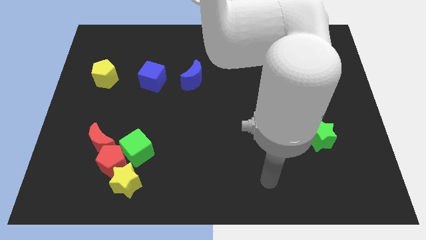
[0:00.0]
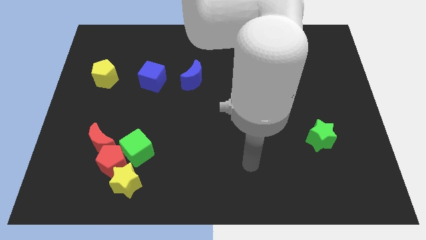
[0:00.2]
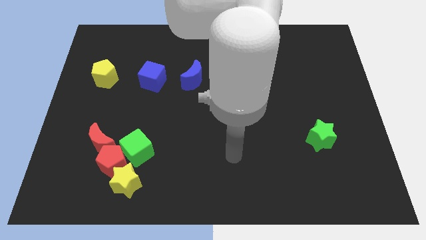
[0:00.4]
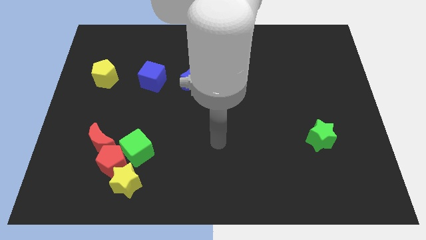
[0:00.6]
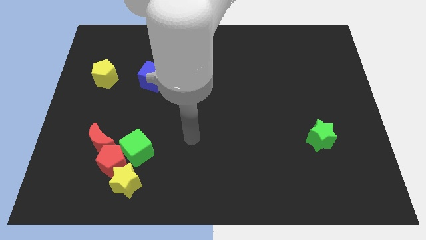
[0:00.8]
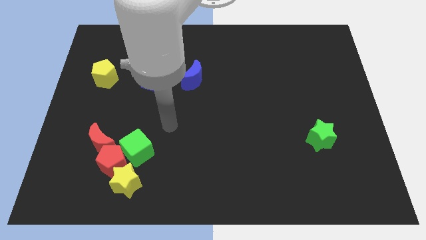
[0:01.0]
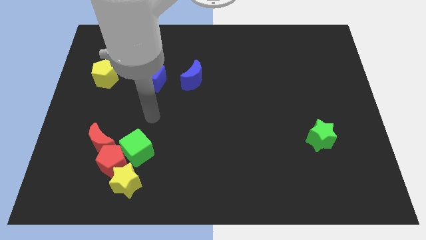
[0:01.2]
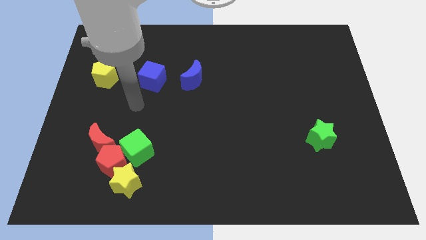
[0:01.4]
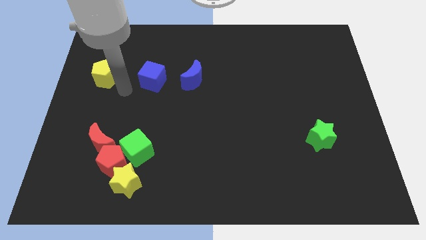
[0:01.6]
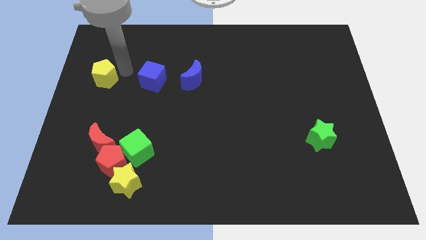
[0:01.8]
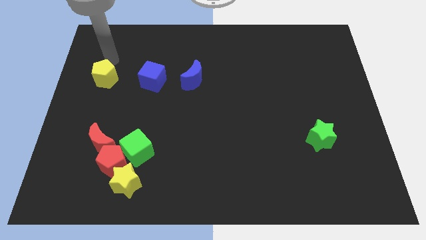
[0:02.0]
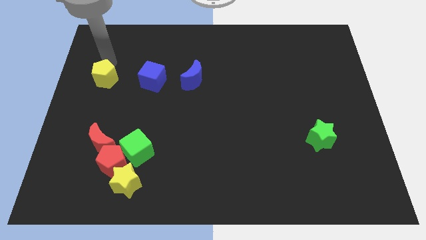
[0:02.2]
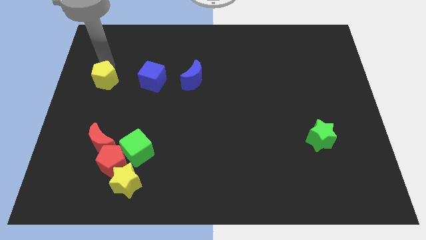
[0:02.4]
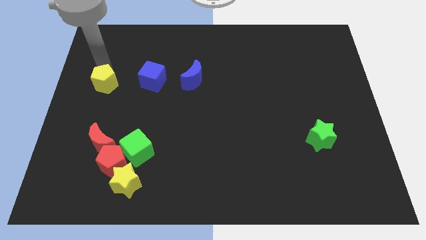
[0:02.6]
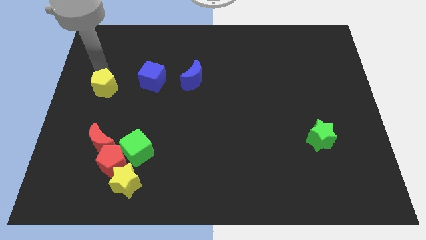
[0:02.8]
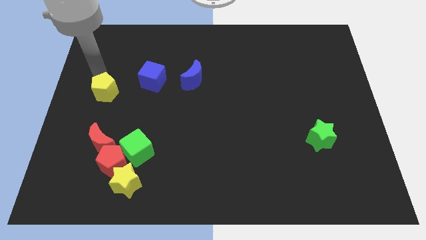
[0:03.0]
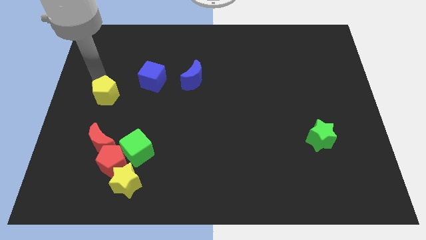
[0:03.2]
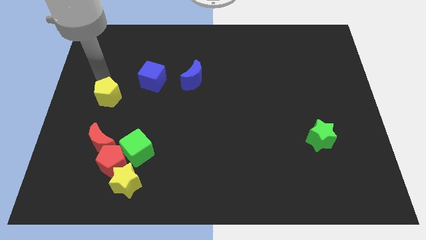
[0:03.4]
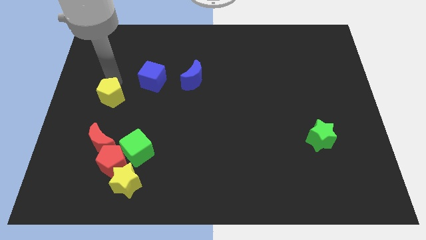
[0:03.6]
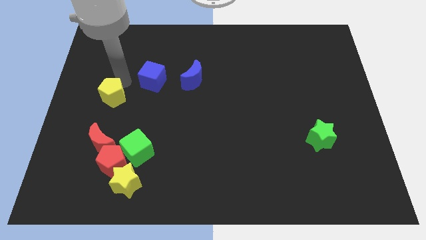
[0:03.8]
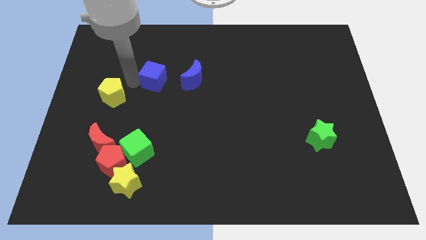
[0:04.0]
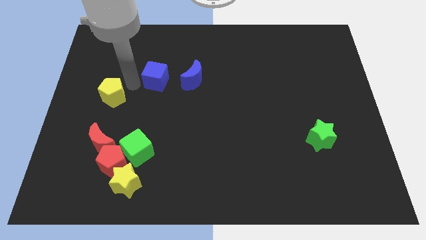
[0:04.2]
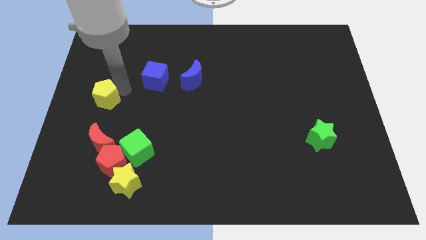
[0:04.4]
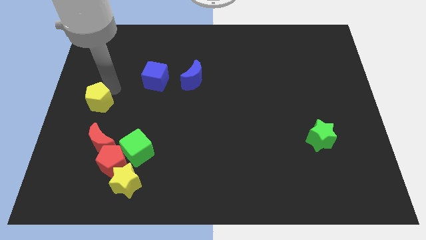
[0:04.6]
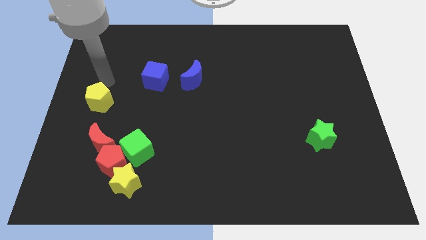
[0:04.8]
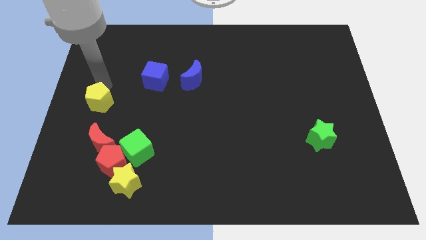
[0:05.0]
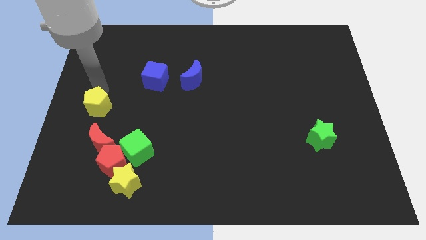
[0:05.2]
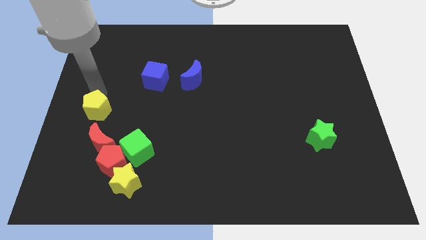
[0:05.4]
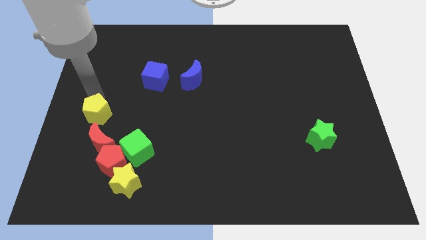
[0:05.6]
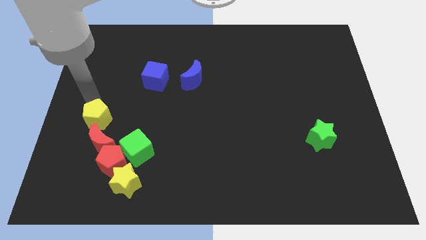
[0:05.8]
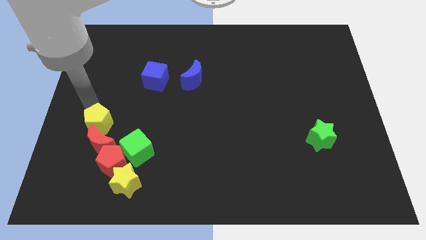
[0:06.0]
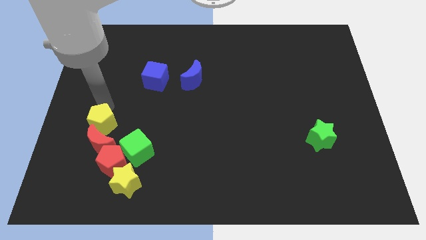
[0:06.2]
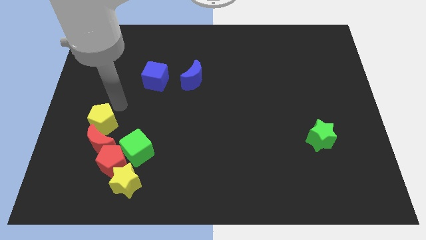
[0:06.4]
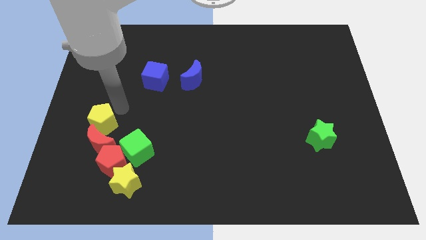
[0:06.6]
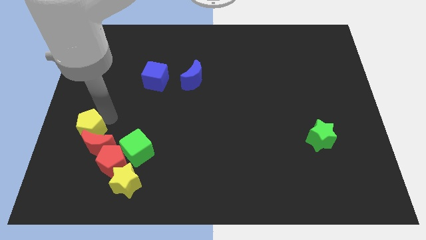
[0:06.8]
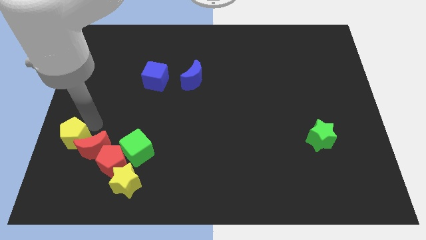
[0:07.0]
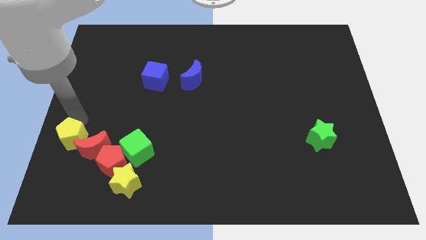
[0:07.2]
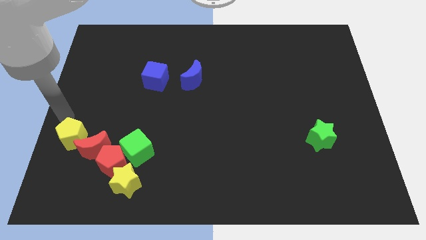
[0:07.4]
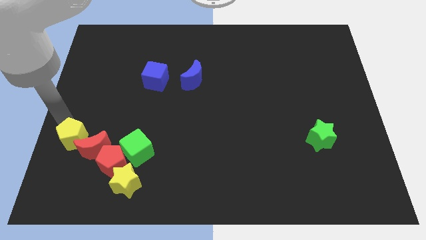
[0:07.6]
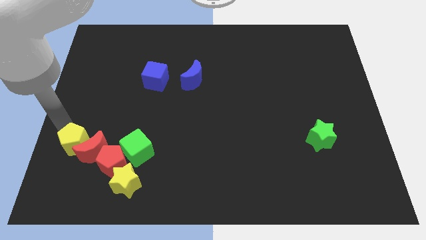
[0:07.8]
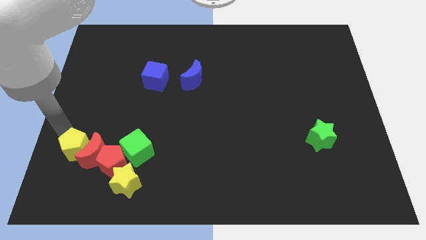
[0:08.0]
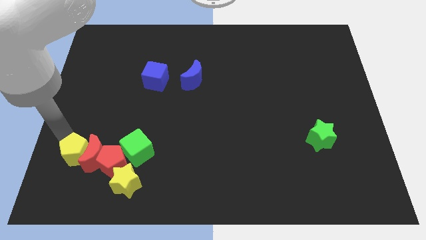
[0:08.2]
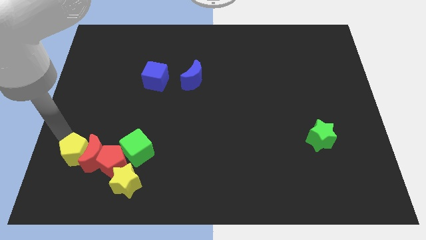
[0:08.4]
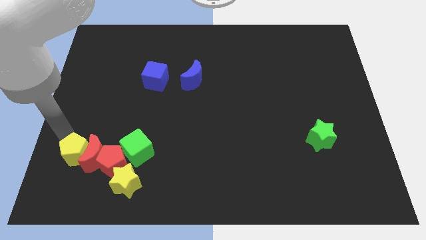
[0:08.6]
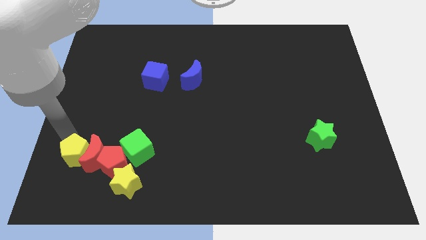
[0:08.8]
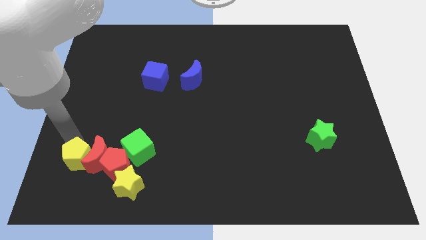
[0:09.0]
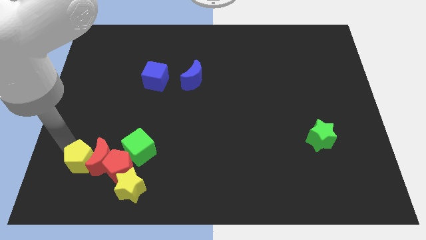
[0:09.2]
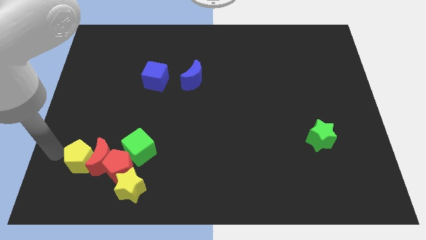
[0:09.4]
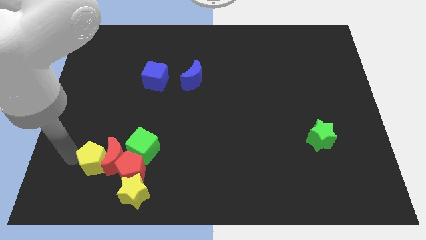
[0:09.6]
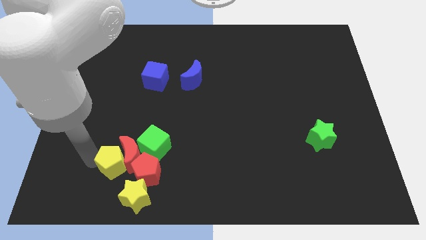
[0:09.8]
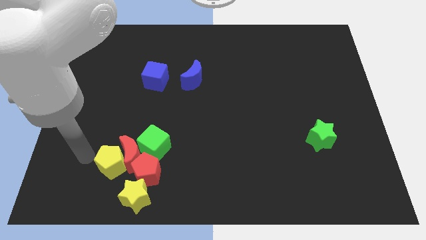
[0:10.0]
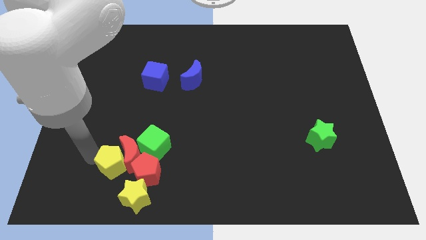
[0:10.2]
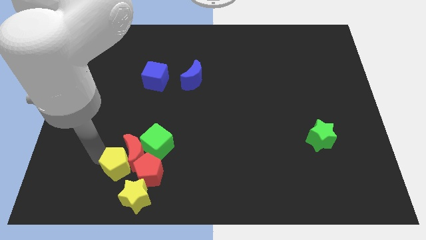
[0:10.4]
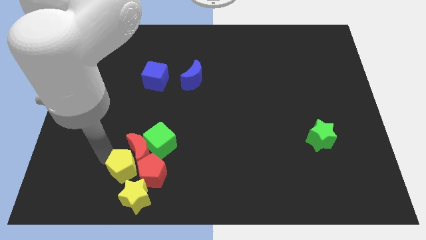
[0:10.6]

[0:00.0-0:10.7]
put the yellow pentagon close to the red pentagon

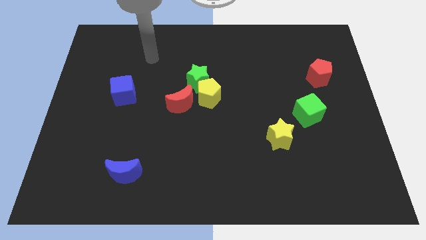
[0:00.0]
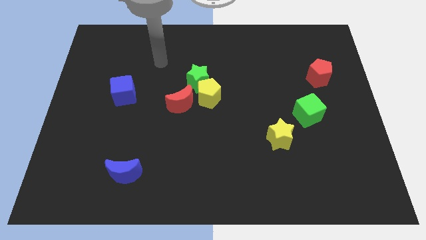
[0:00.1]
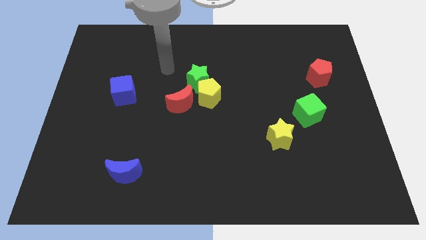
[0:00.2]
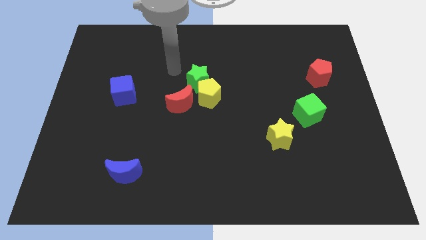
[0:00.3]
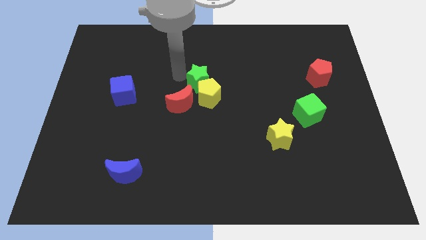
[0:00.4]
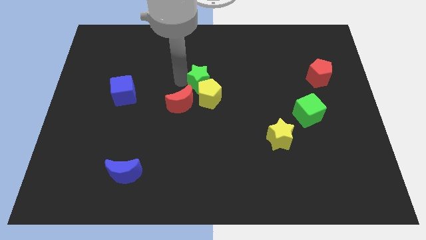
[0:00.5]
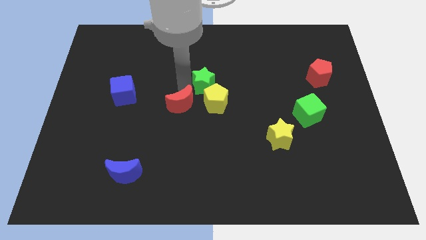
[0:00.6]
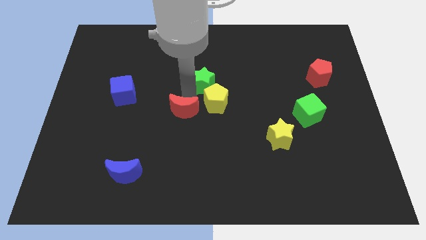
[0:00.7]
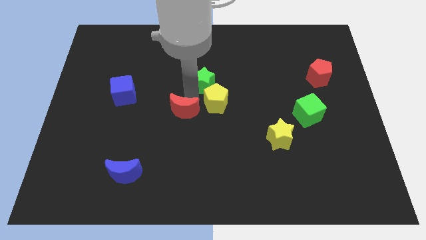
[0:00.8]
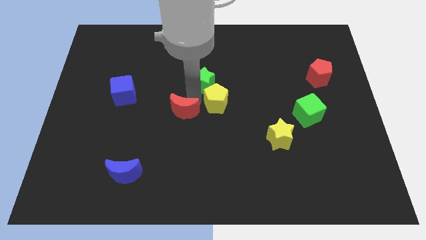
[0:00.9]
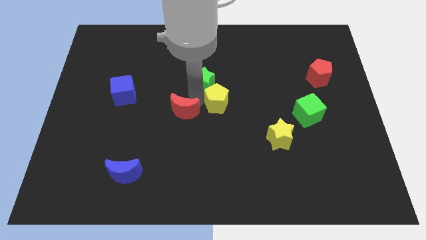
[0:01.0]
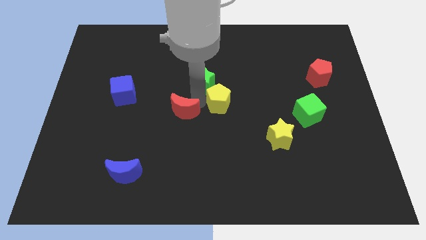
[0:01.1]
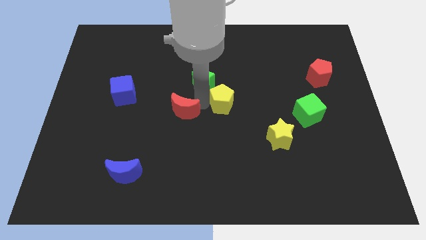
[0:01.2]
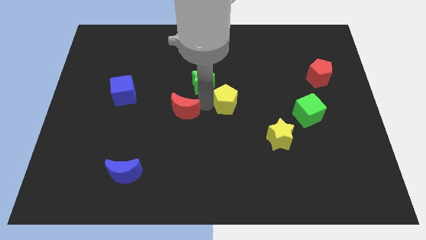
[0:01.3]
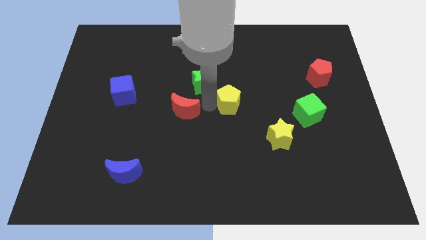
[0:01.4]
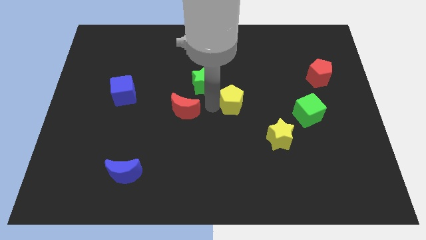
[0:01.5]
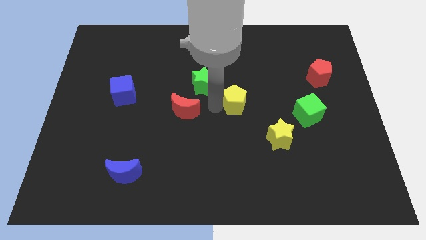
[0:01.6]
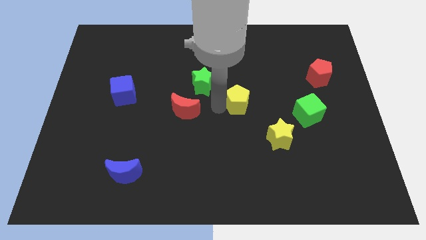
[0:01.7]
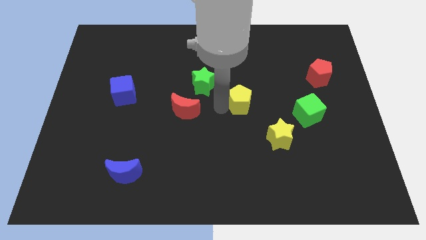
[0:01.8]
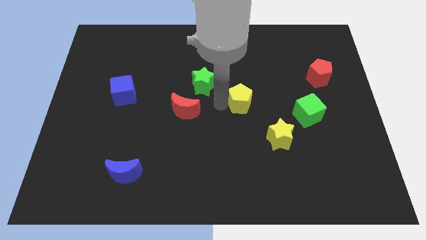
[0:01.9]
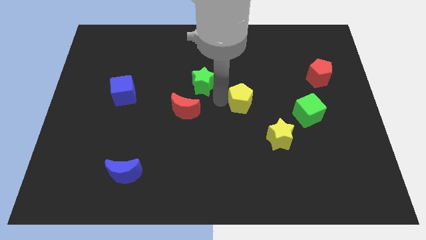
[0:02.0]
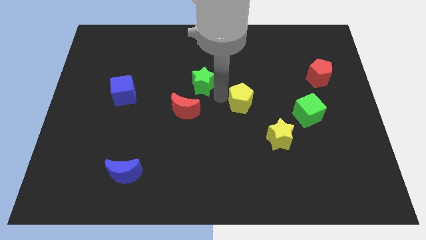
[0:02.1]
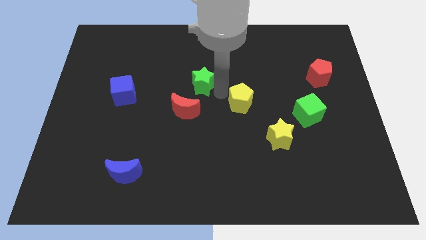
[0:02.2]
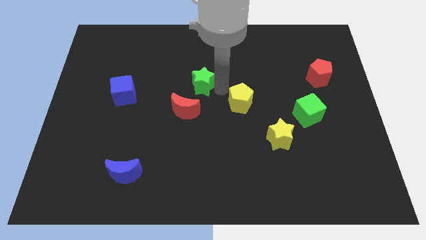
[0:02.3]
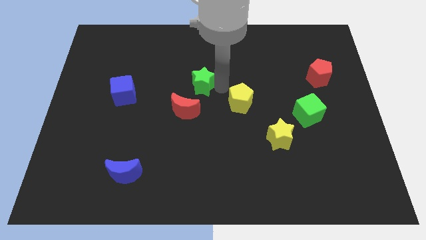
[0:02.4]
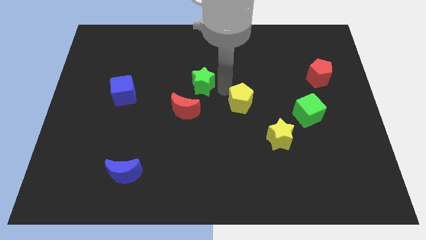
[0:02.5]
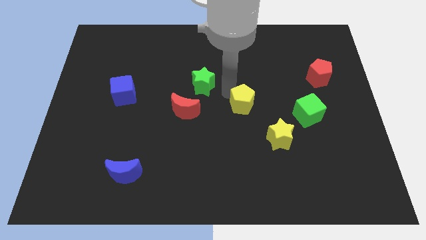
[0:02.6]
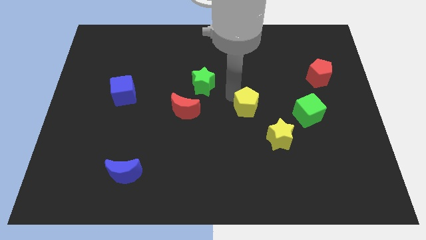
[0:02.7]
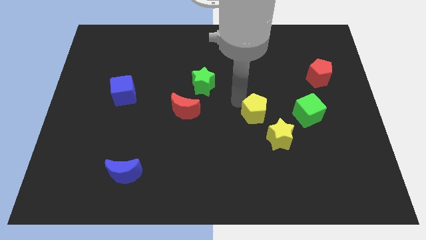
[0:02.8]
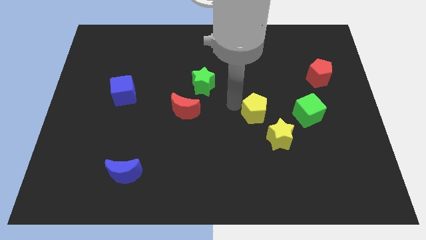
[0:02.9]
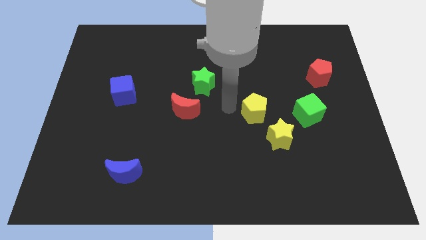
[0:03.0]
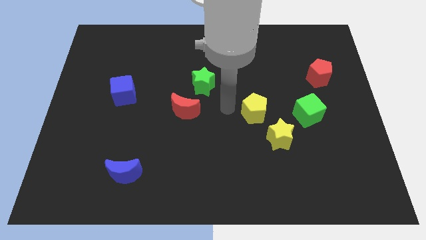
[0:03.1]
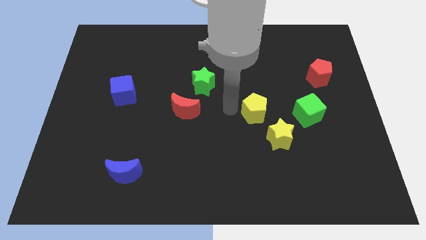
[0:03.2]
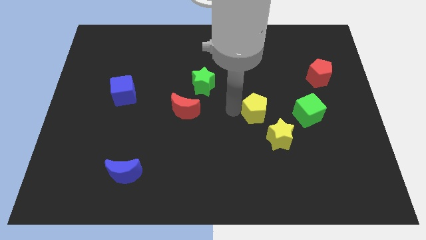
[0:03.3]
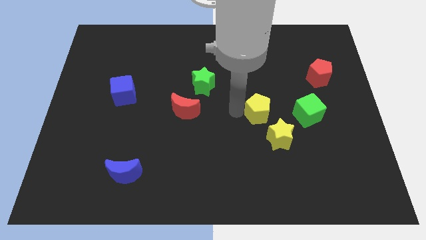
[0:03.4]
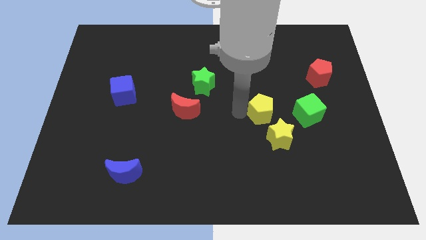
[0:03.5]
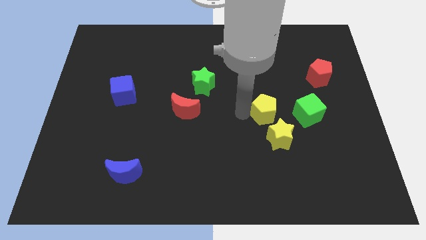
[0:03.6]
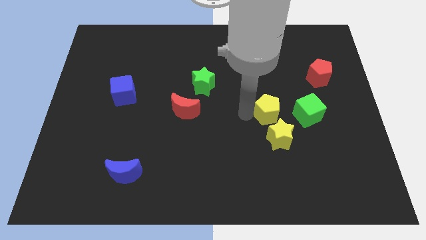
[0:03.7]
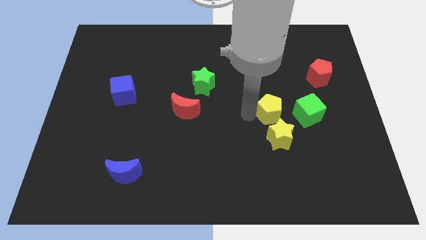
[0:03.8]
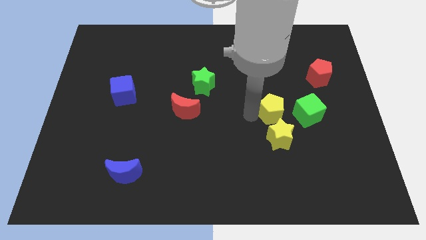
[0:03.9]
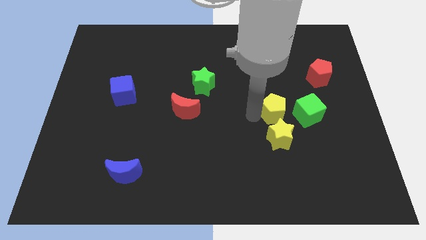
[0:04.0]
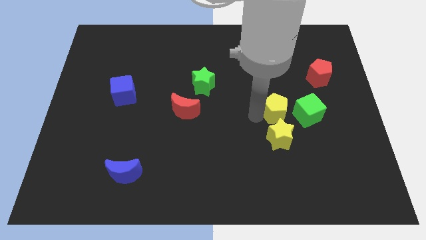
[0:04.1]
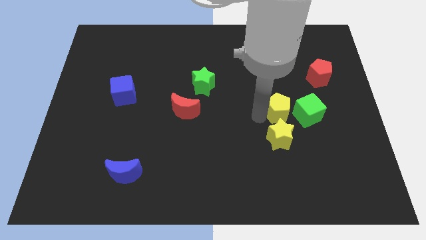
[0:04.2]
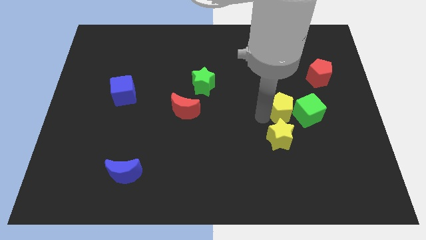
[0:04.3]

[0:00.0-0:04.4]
slide the yellow pentagon to the green cube
